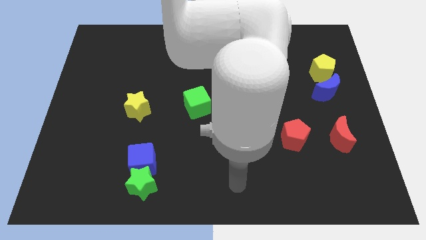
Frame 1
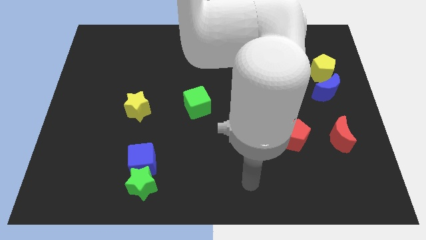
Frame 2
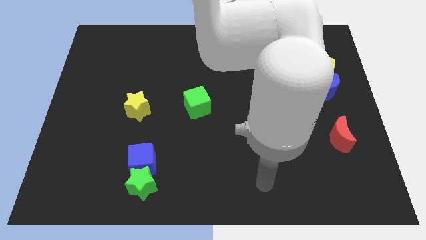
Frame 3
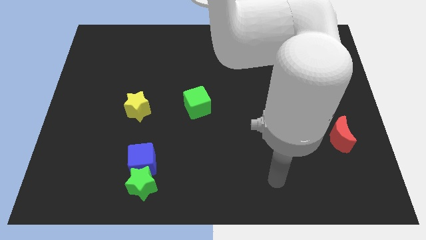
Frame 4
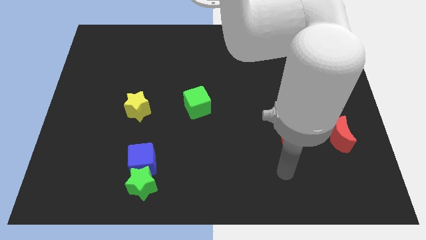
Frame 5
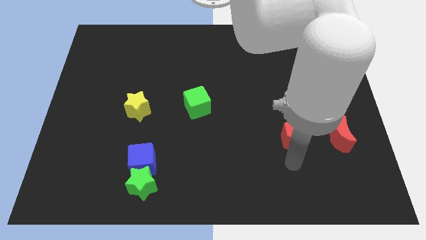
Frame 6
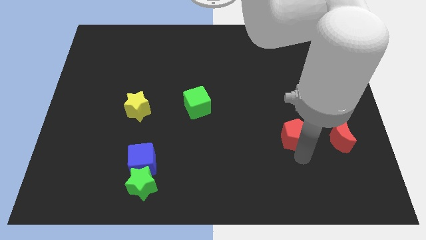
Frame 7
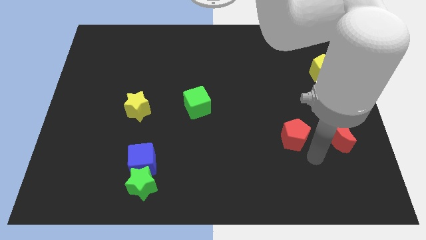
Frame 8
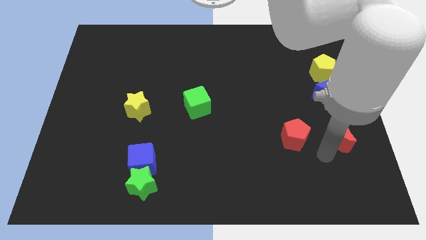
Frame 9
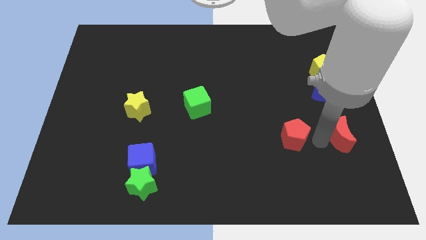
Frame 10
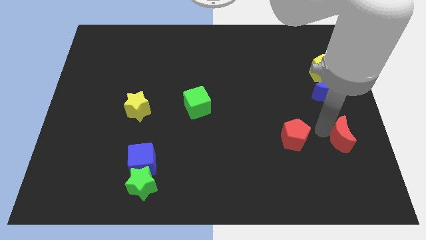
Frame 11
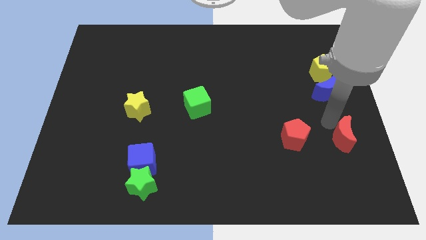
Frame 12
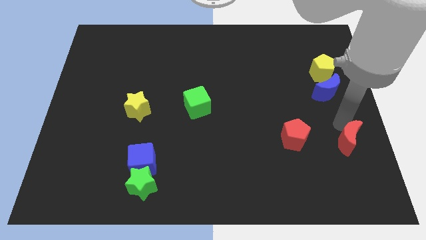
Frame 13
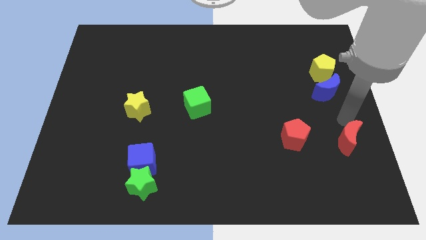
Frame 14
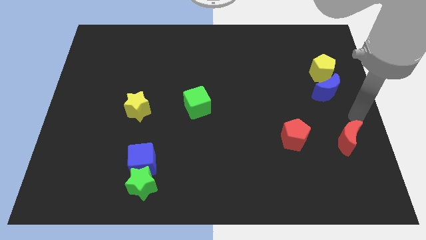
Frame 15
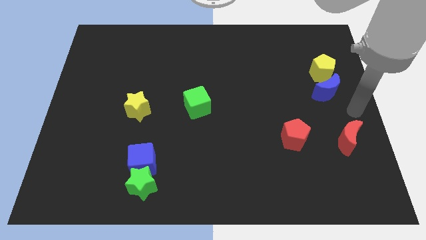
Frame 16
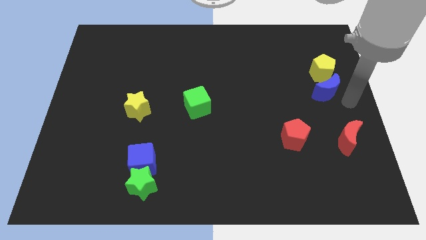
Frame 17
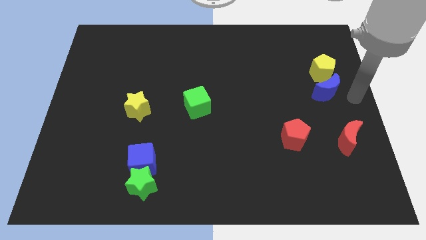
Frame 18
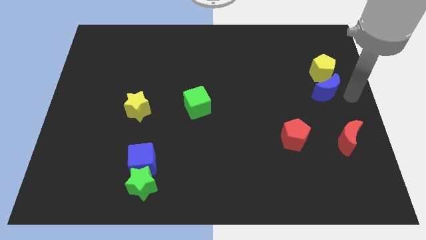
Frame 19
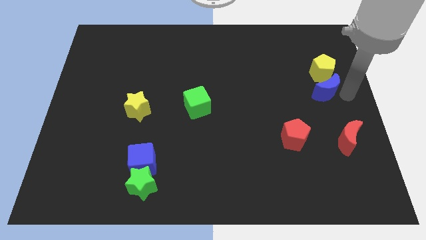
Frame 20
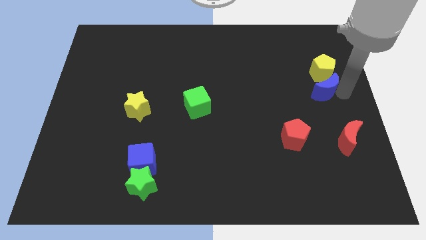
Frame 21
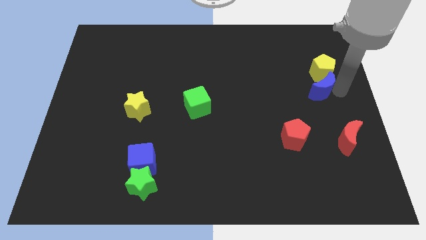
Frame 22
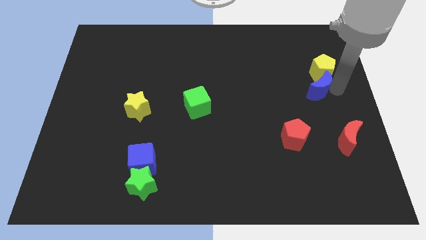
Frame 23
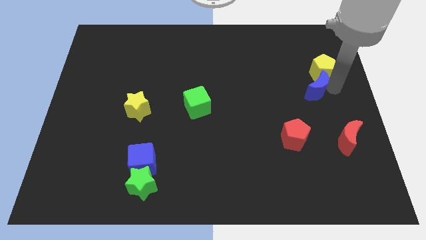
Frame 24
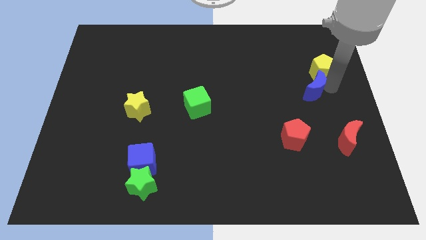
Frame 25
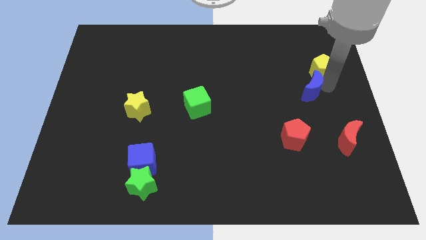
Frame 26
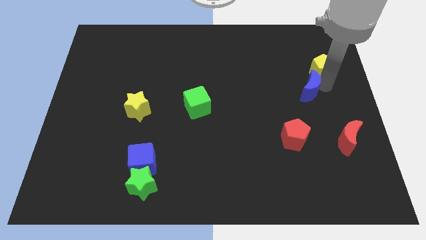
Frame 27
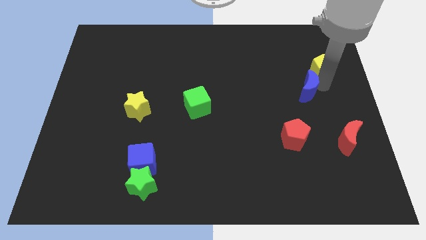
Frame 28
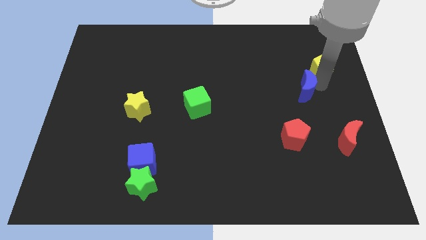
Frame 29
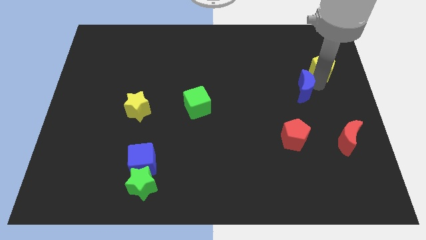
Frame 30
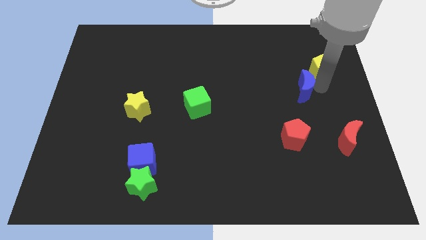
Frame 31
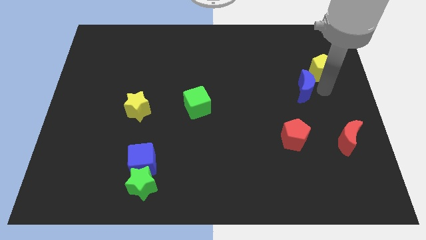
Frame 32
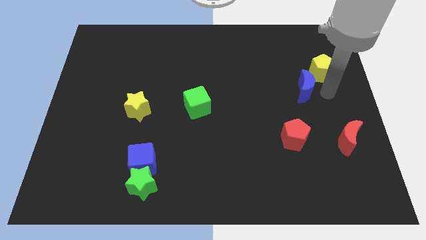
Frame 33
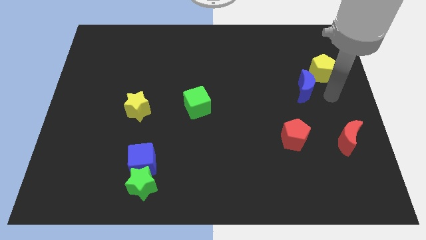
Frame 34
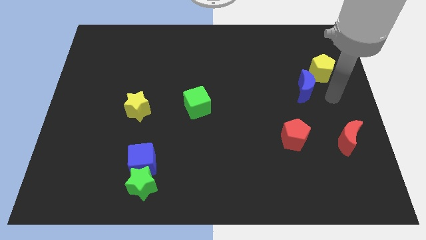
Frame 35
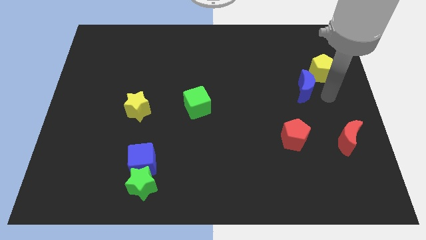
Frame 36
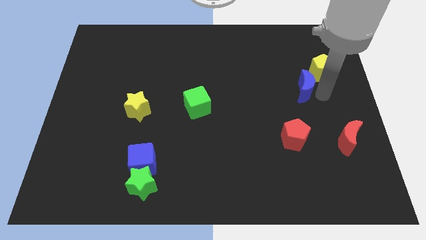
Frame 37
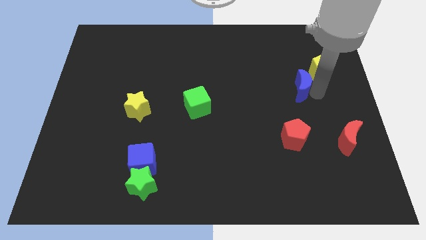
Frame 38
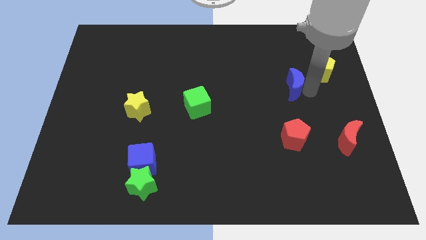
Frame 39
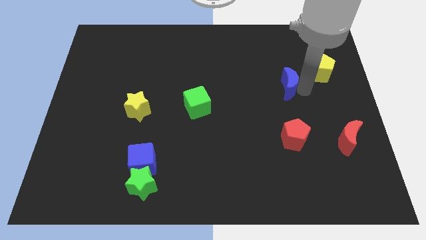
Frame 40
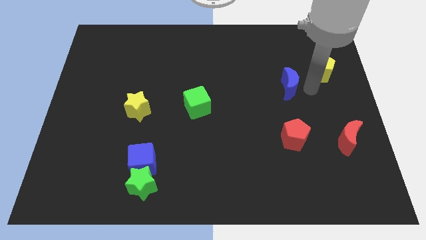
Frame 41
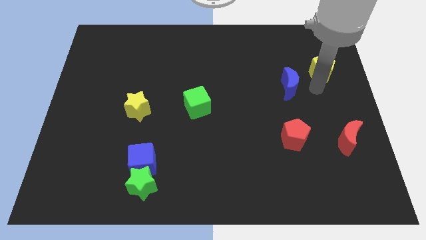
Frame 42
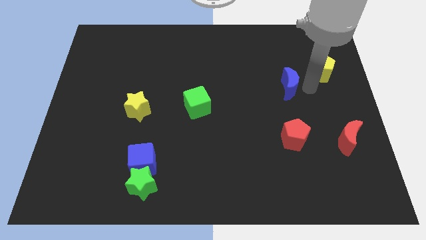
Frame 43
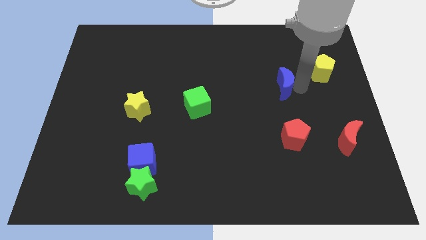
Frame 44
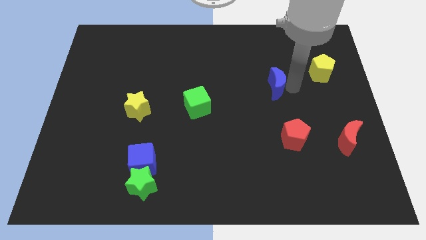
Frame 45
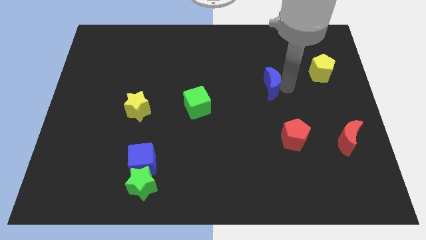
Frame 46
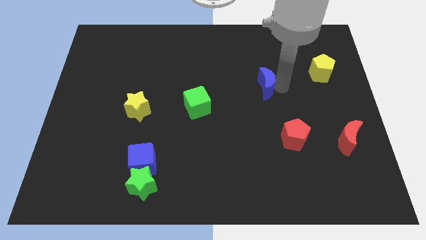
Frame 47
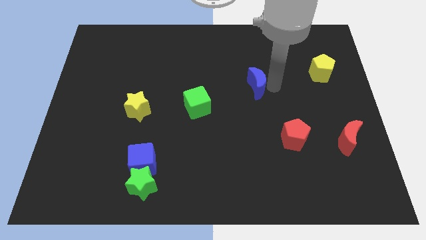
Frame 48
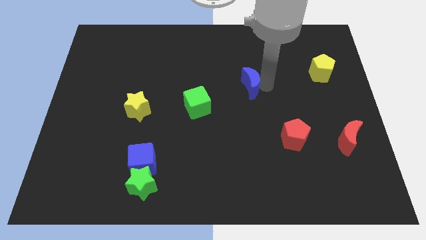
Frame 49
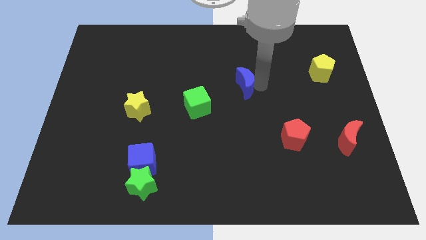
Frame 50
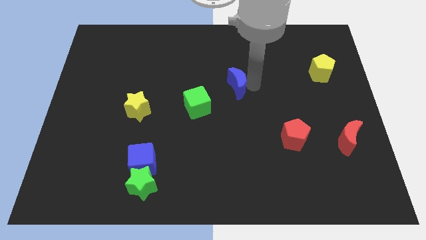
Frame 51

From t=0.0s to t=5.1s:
put the blue moon diagonally up and to the right of the green cube

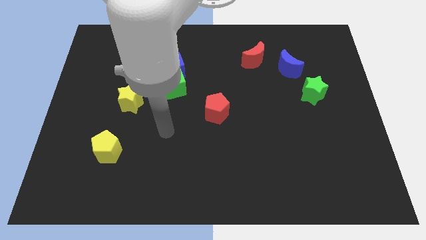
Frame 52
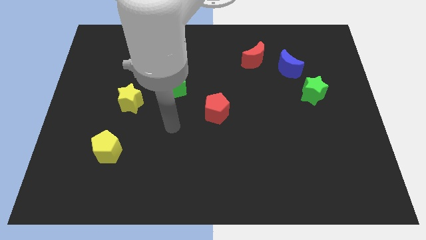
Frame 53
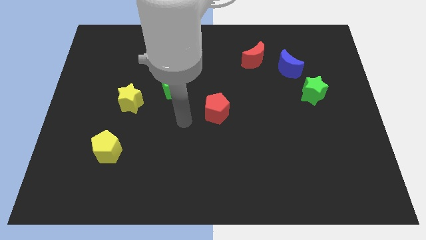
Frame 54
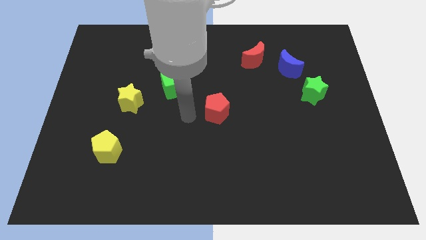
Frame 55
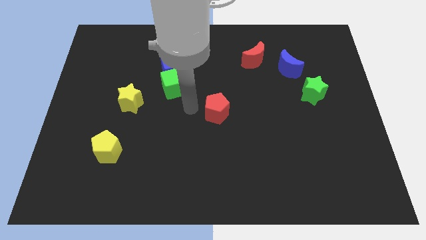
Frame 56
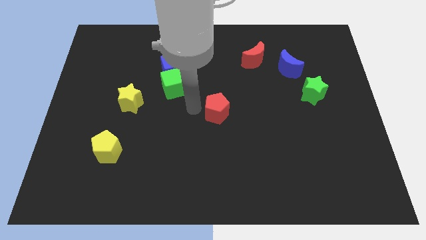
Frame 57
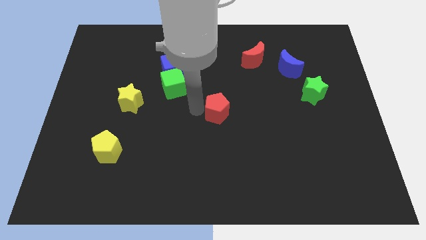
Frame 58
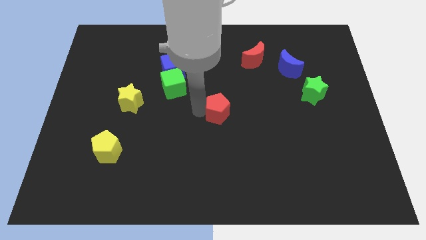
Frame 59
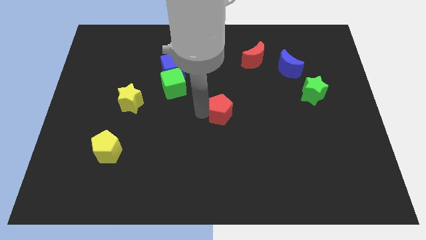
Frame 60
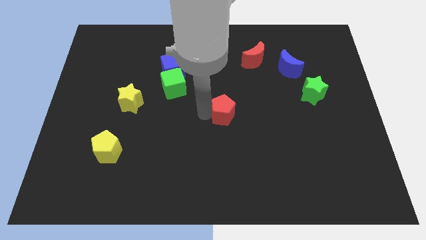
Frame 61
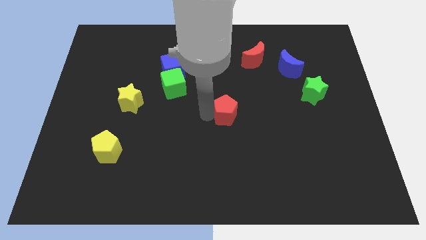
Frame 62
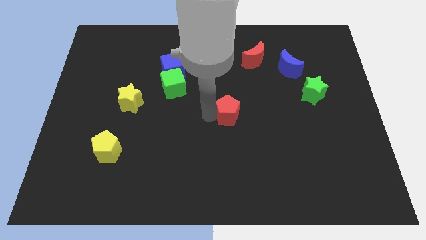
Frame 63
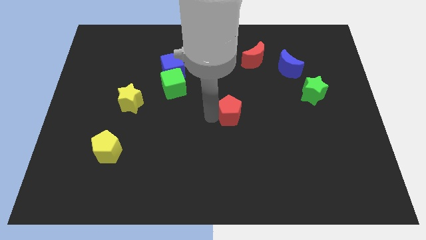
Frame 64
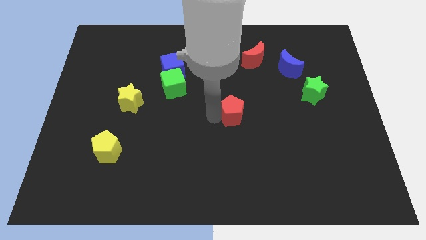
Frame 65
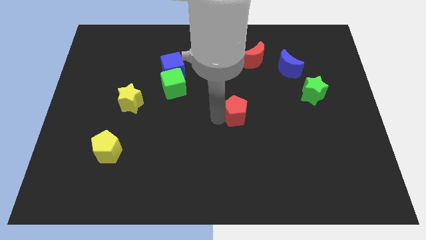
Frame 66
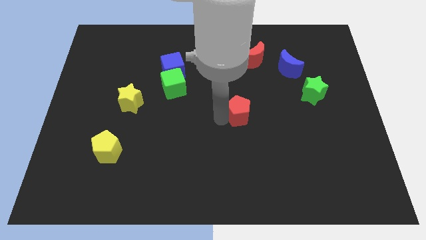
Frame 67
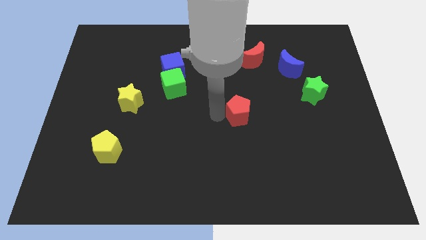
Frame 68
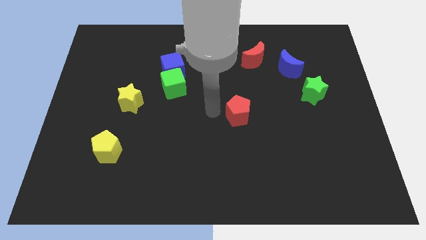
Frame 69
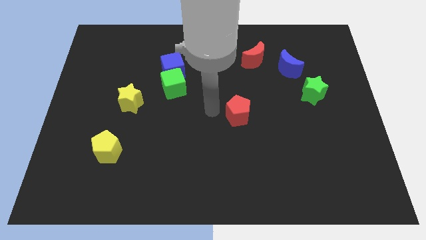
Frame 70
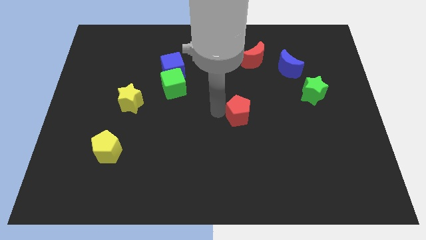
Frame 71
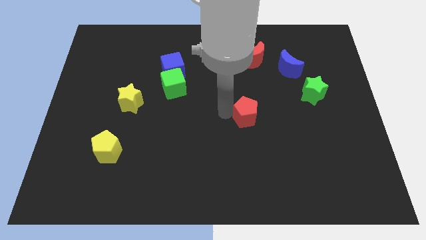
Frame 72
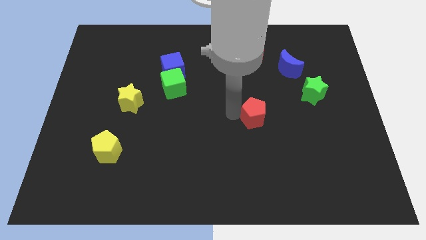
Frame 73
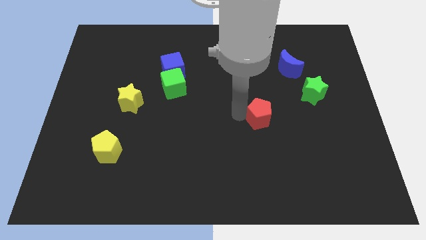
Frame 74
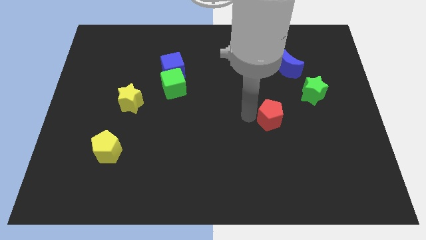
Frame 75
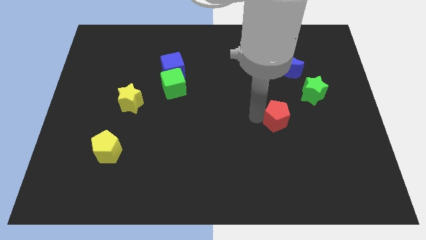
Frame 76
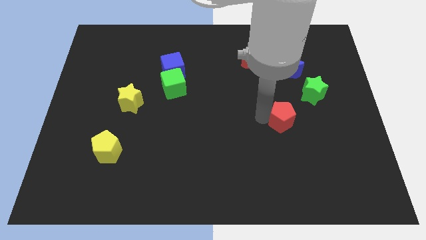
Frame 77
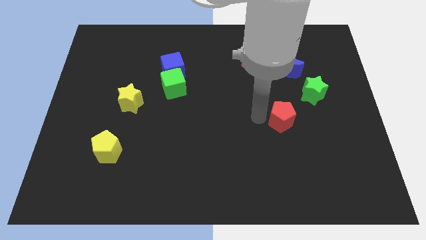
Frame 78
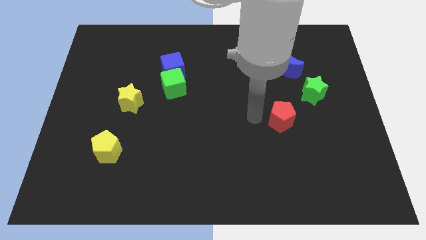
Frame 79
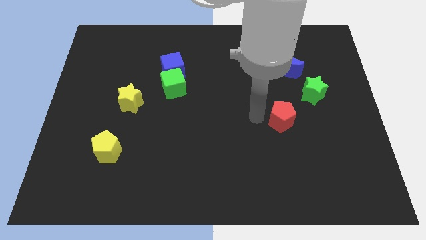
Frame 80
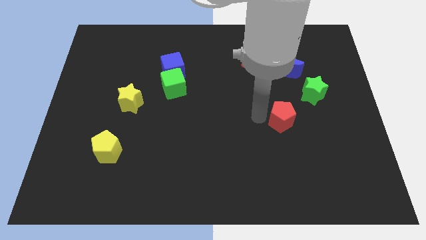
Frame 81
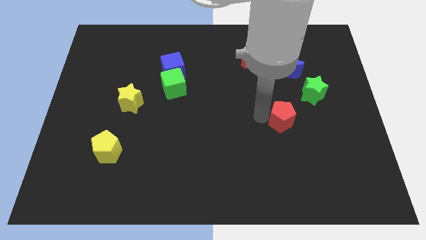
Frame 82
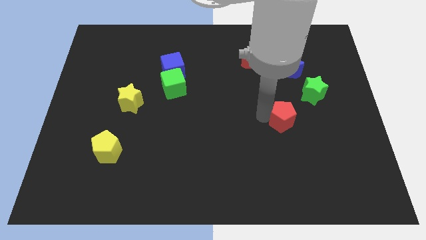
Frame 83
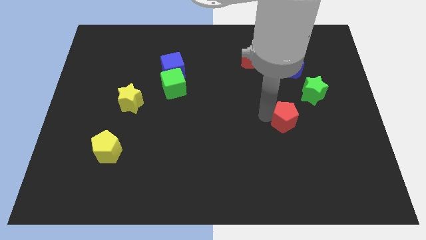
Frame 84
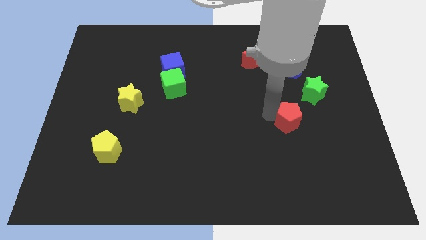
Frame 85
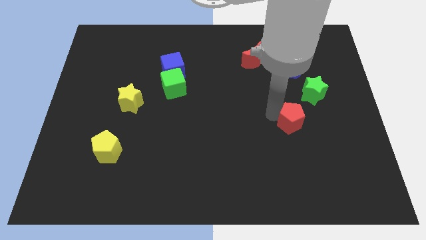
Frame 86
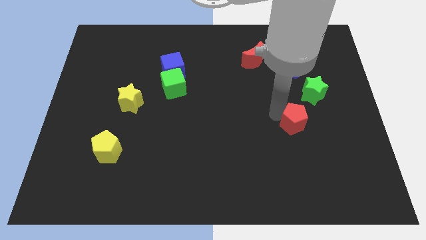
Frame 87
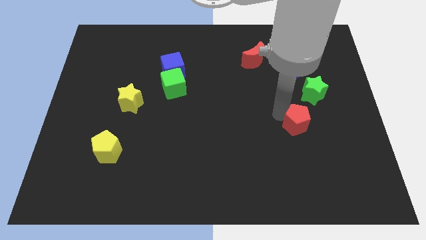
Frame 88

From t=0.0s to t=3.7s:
put the red pentagon to the bottom side of the green star
